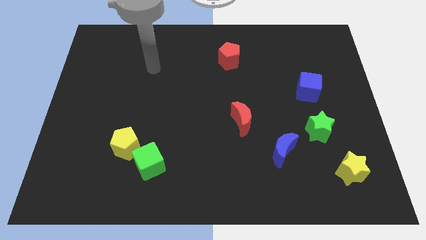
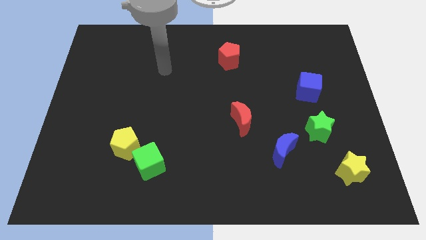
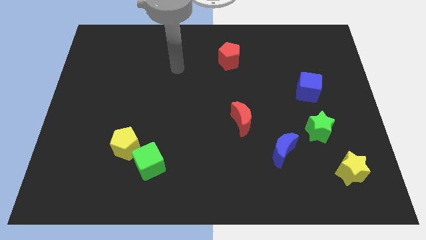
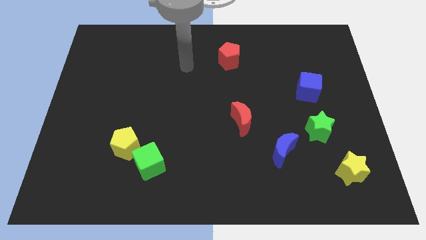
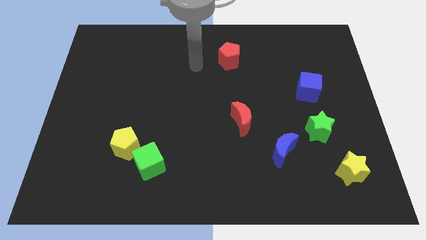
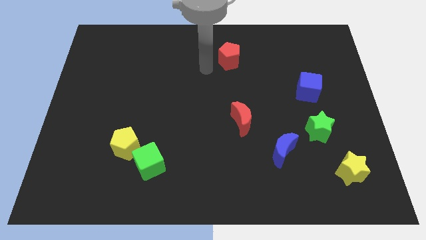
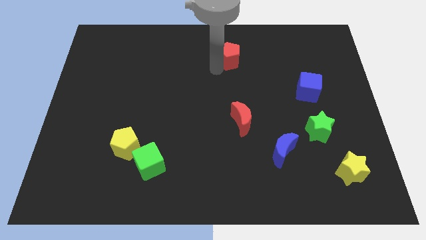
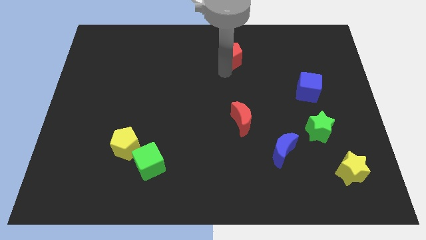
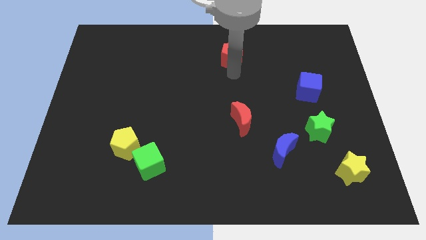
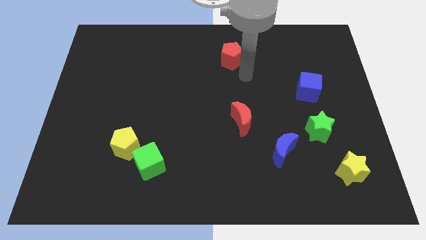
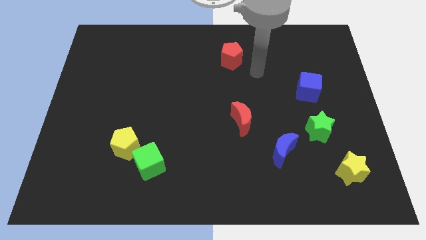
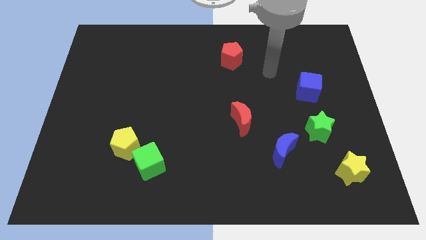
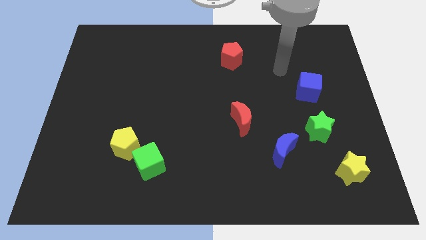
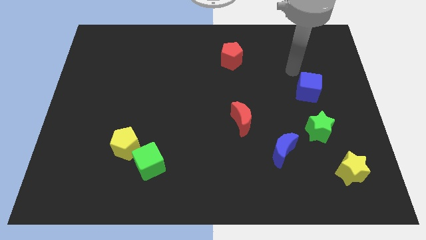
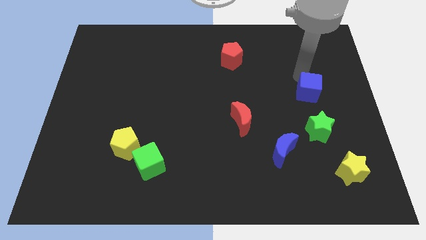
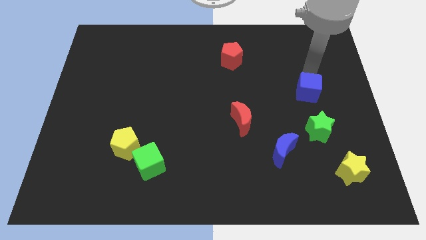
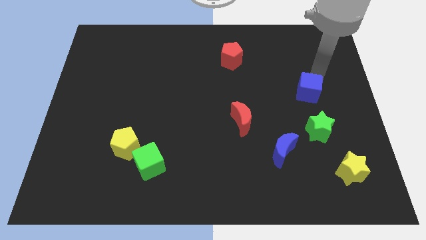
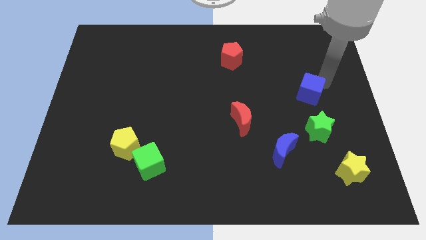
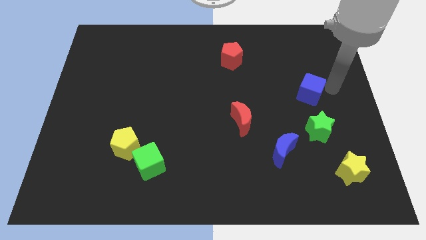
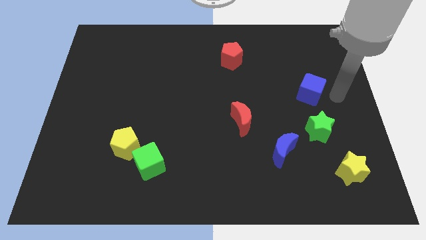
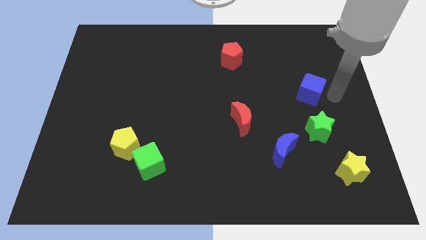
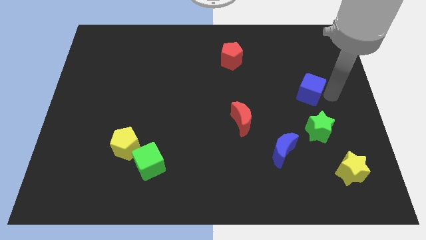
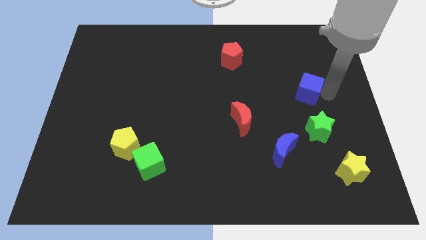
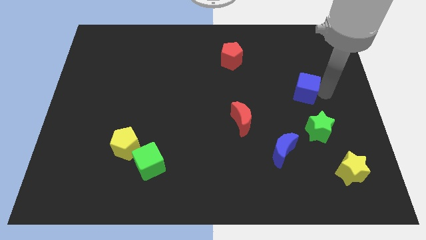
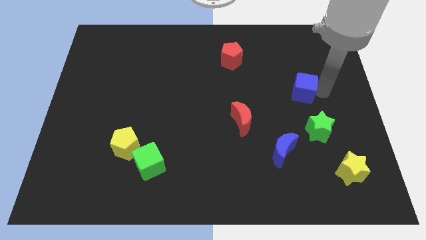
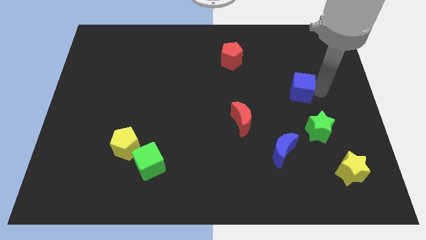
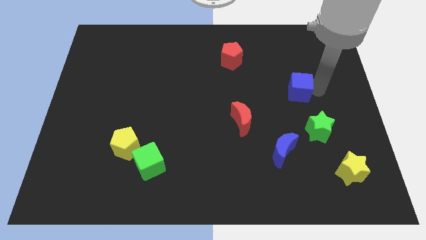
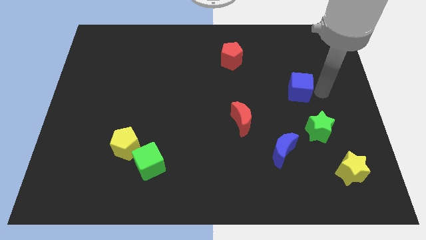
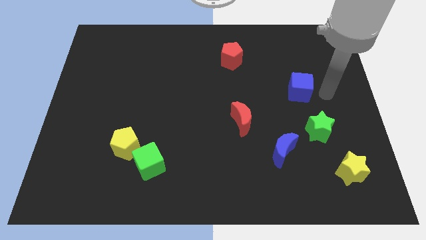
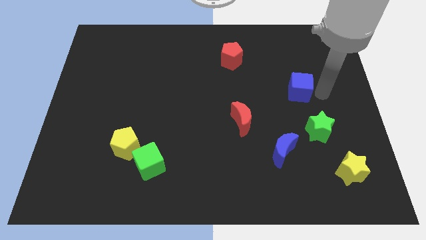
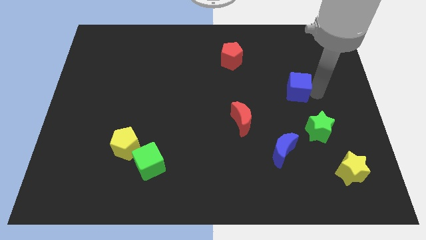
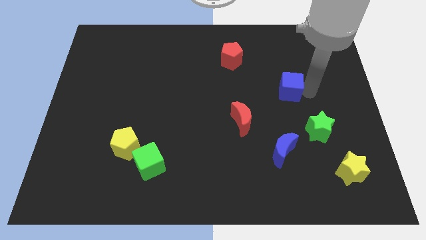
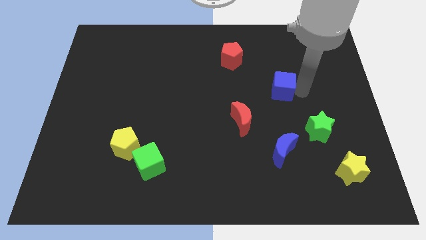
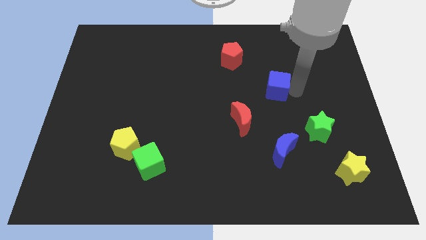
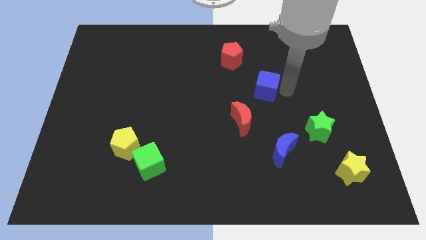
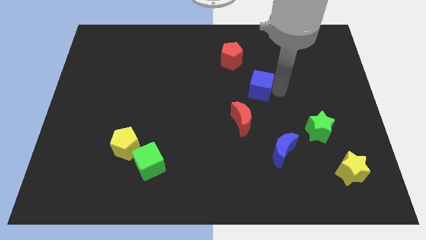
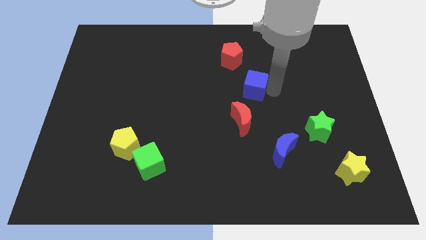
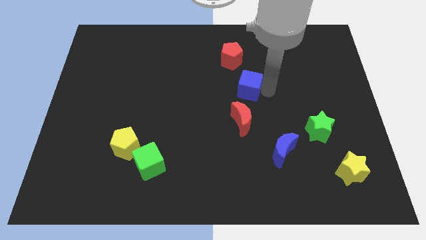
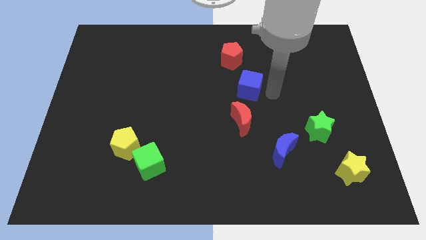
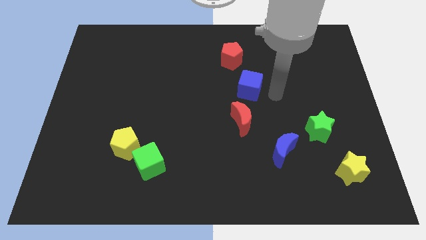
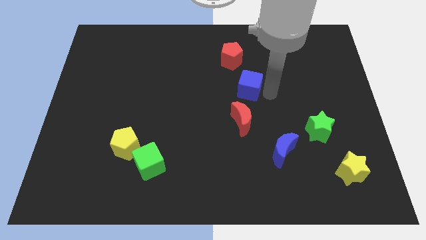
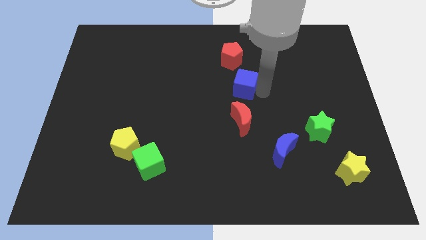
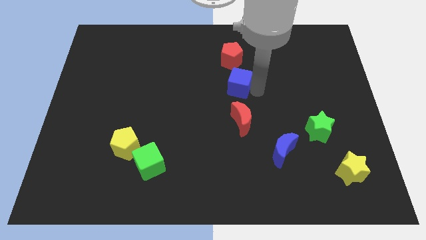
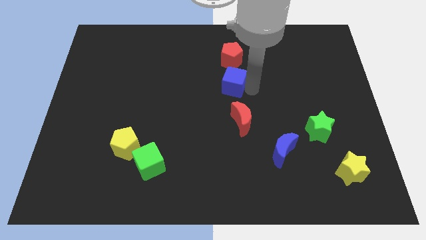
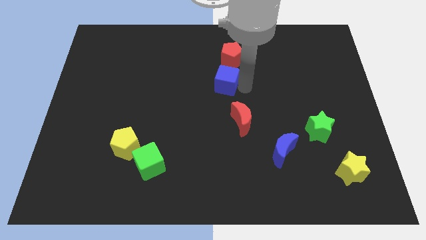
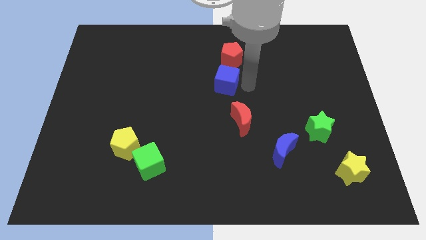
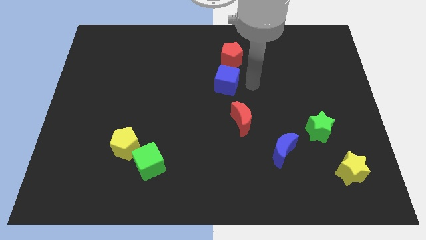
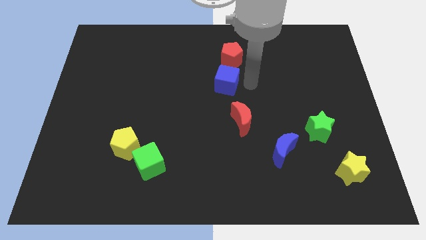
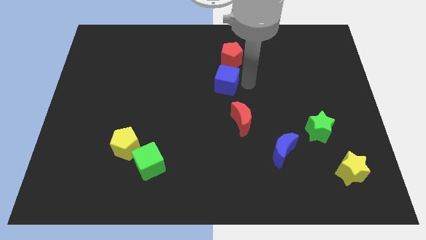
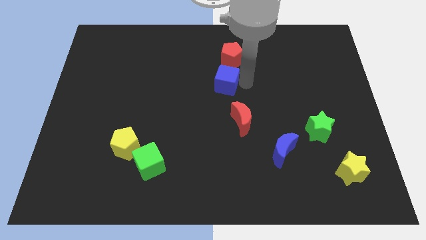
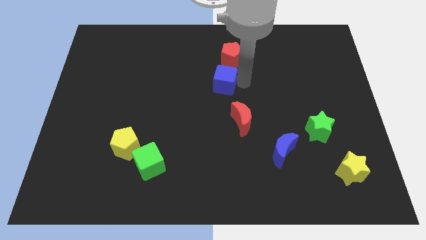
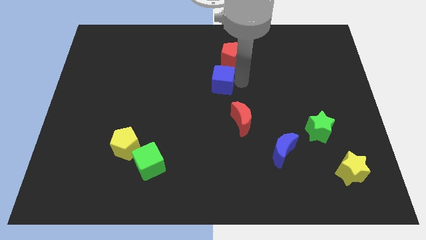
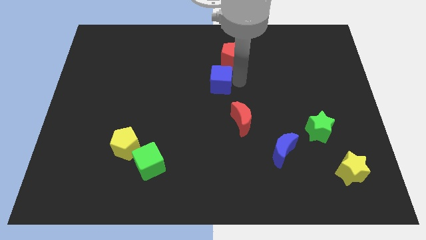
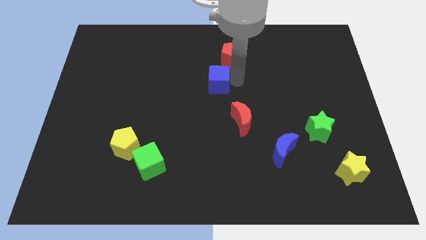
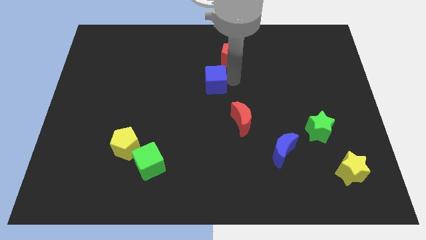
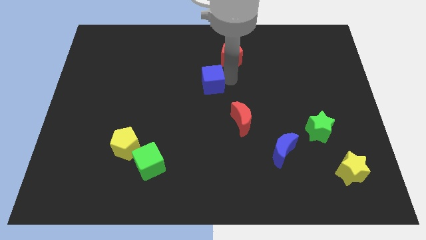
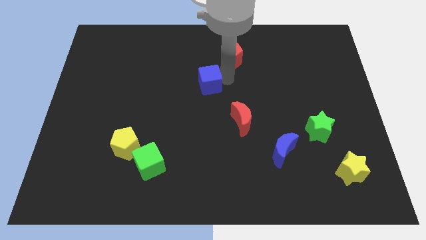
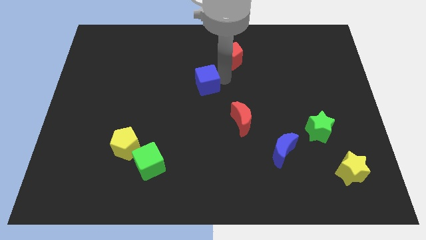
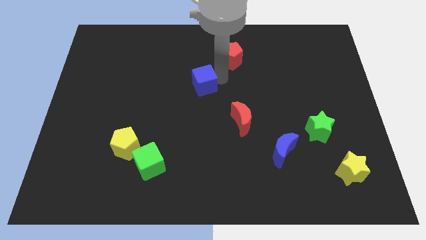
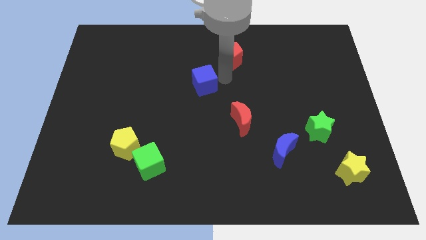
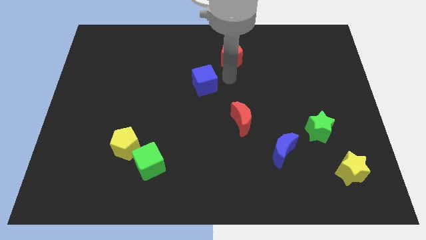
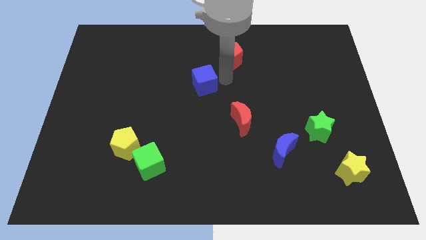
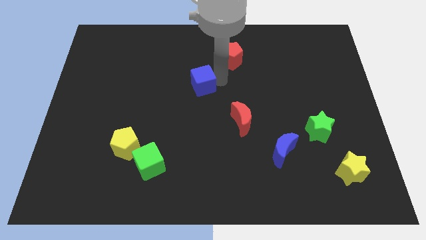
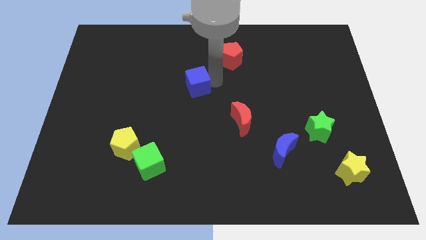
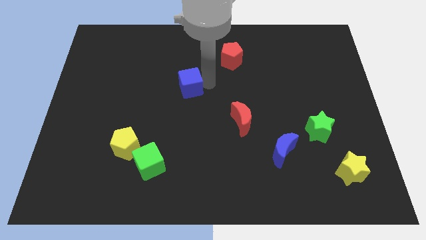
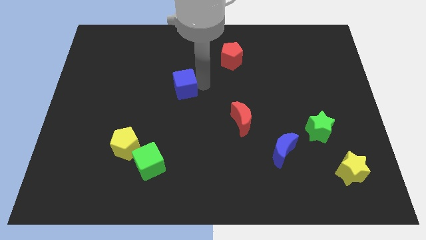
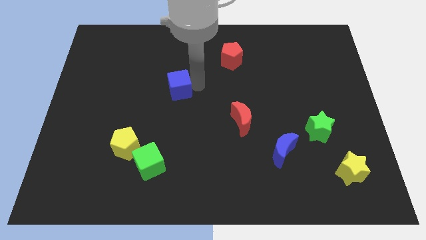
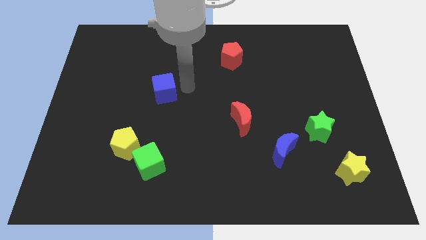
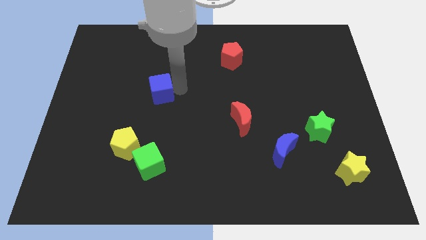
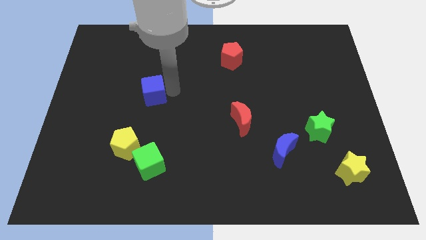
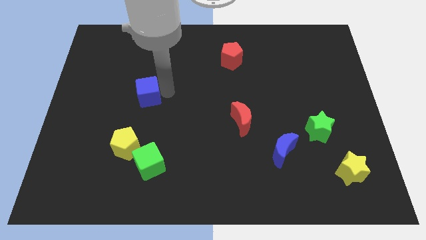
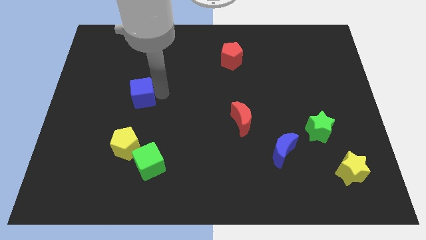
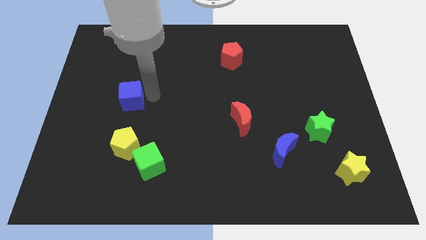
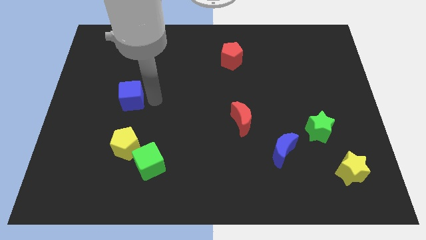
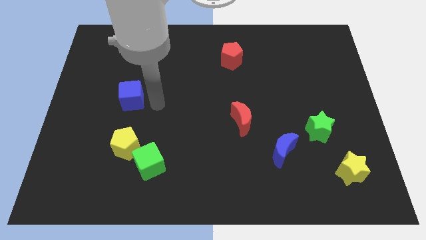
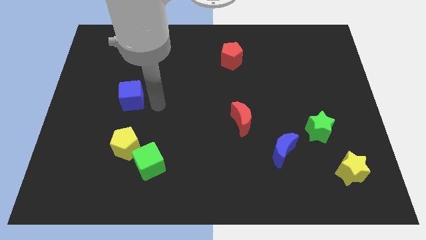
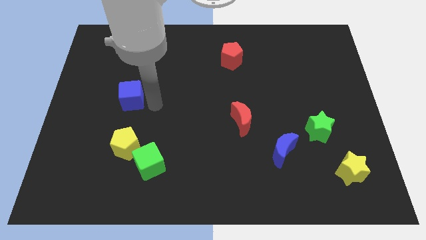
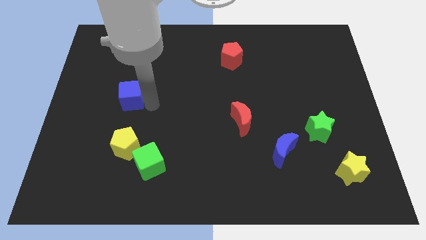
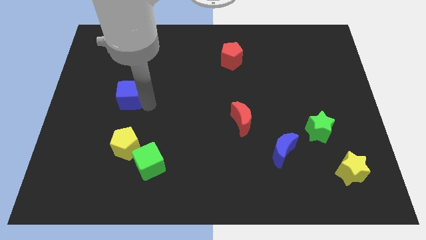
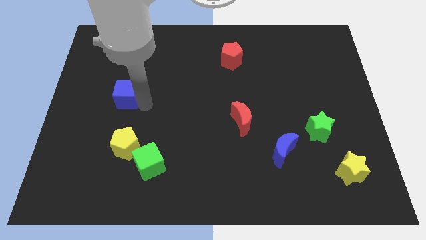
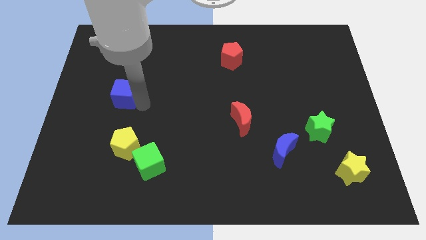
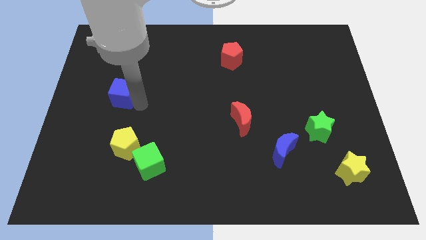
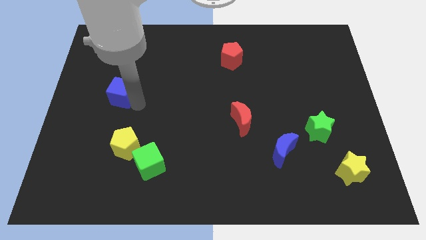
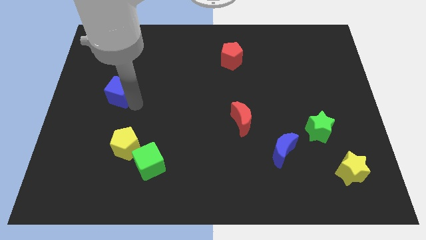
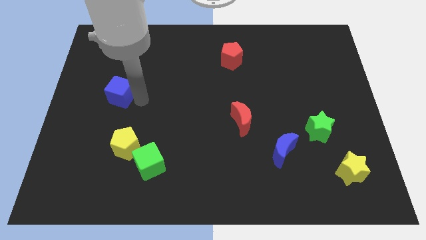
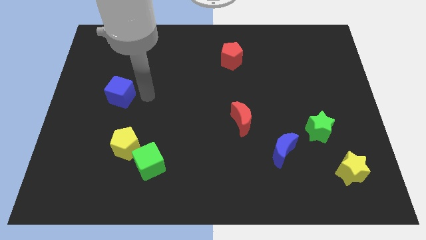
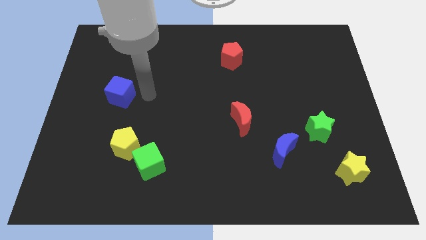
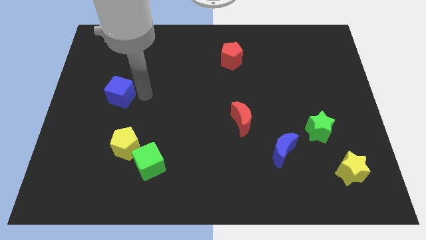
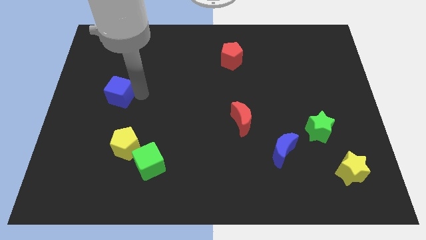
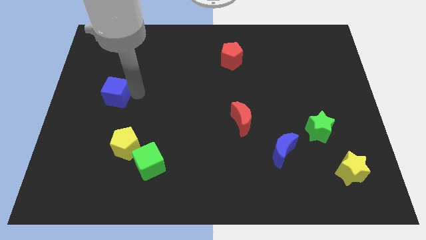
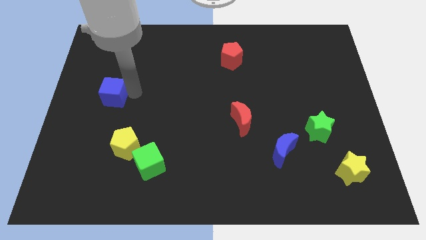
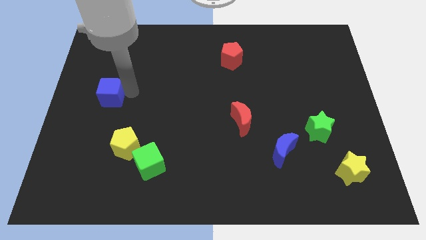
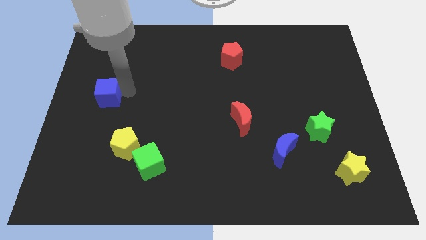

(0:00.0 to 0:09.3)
slide the blue cube to the left side of the board
